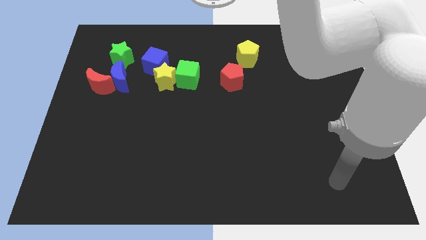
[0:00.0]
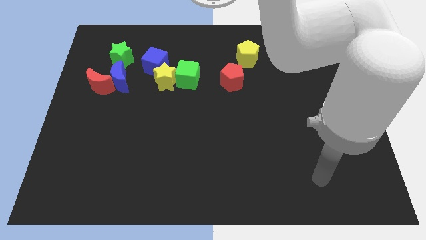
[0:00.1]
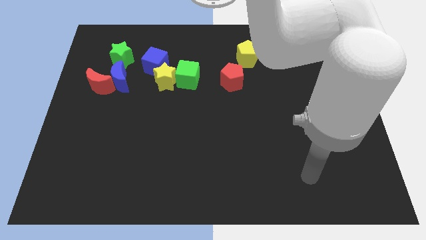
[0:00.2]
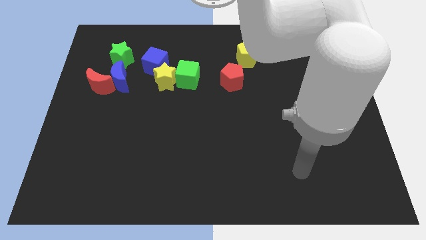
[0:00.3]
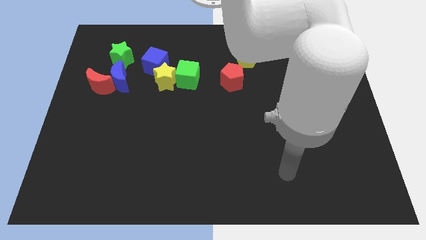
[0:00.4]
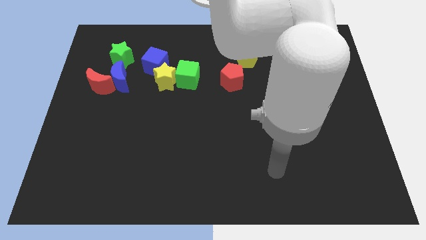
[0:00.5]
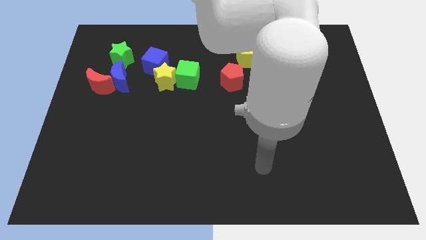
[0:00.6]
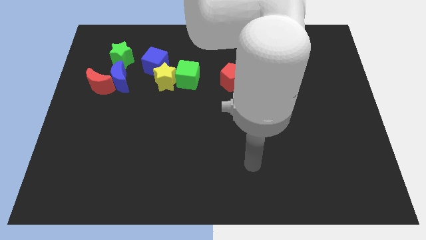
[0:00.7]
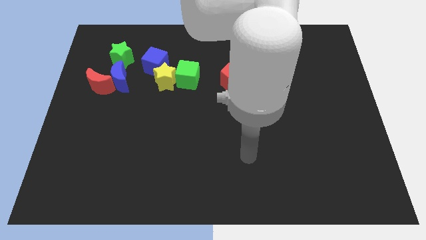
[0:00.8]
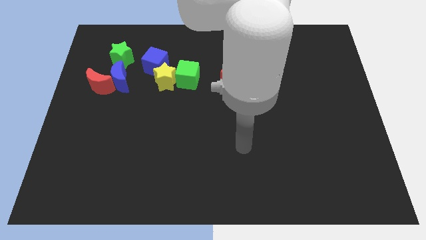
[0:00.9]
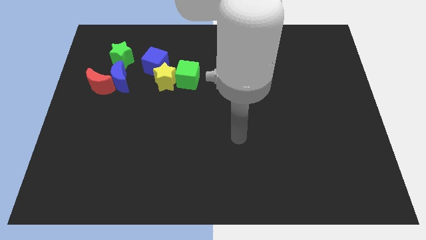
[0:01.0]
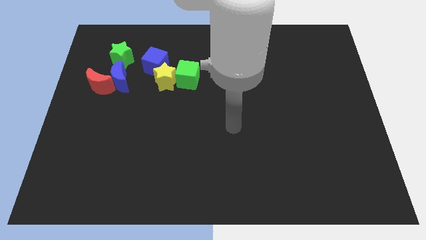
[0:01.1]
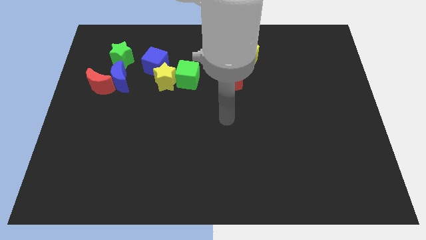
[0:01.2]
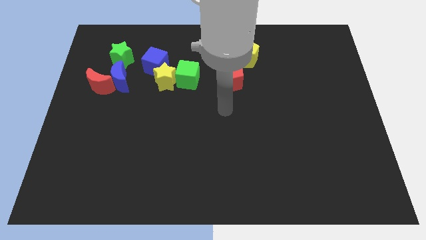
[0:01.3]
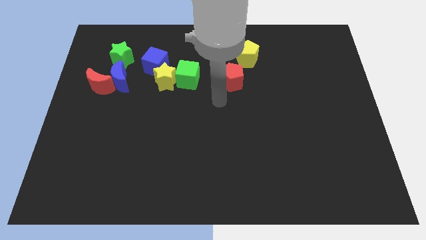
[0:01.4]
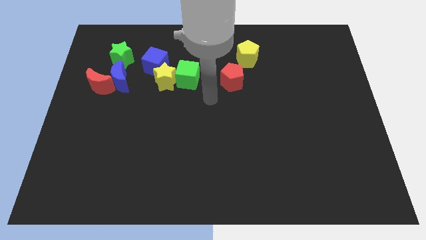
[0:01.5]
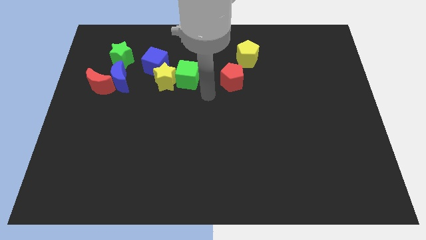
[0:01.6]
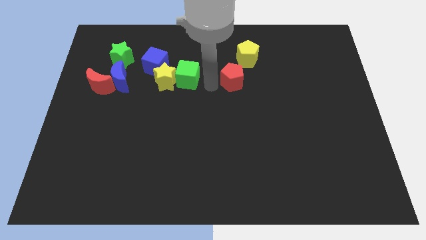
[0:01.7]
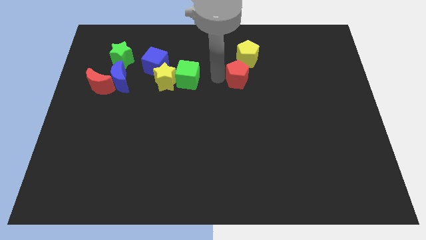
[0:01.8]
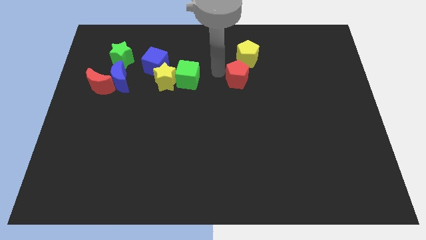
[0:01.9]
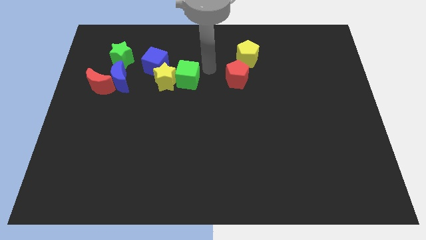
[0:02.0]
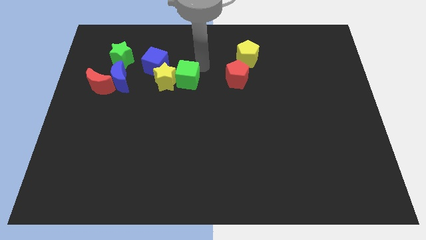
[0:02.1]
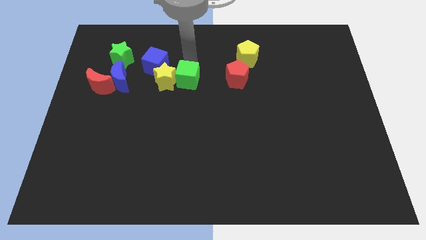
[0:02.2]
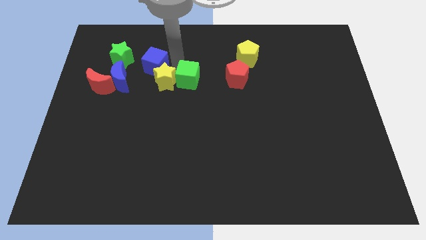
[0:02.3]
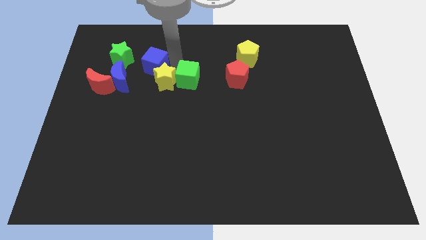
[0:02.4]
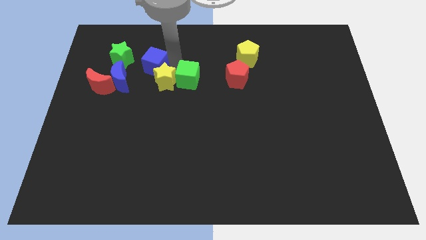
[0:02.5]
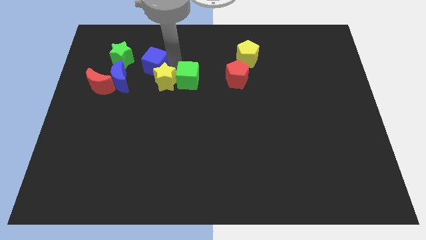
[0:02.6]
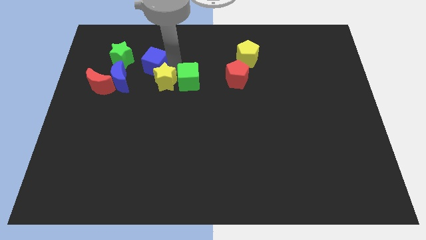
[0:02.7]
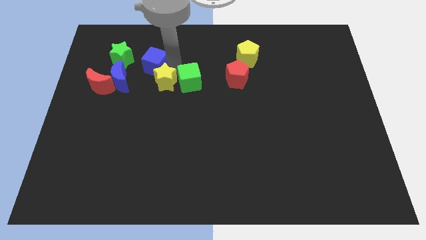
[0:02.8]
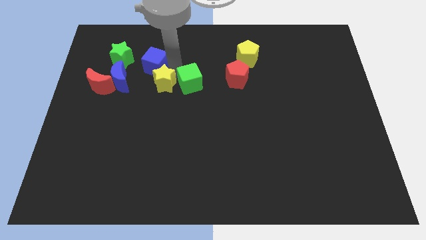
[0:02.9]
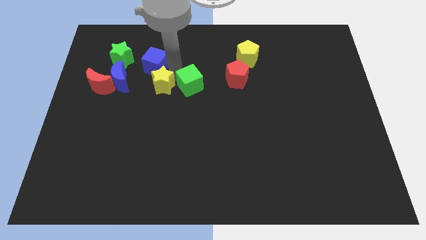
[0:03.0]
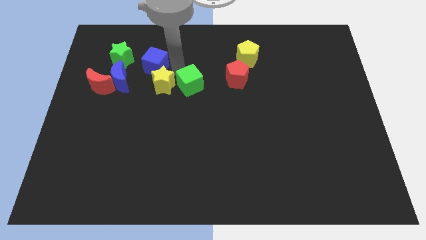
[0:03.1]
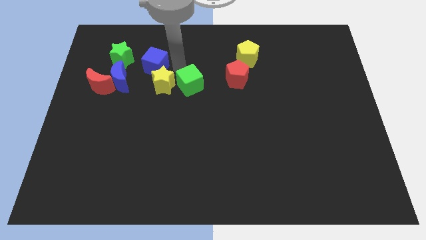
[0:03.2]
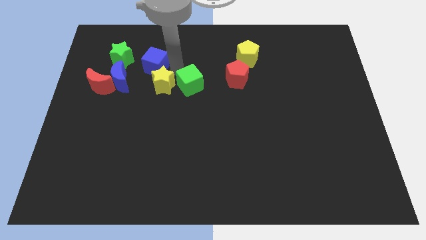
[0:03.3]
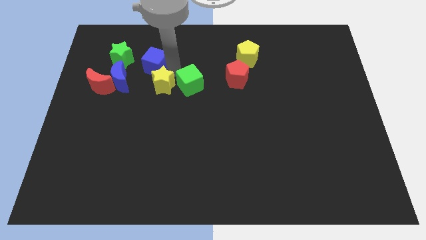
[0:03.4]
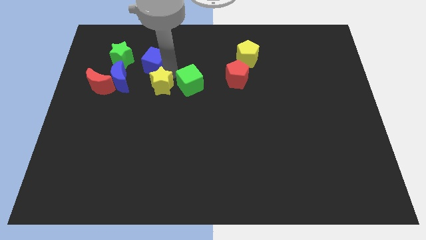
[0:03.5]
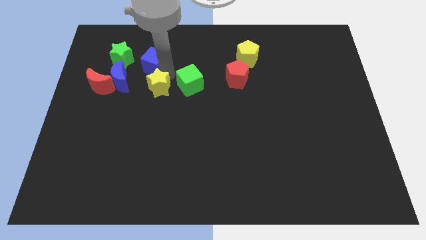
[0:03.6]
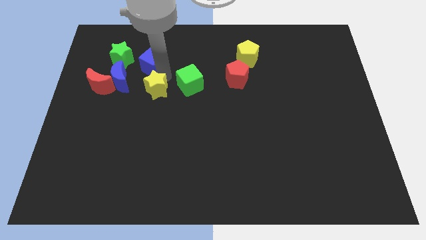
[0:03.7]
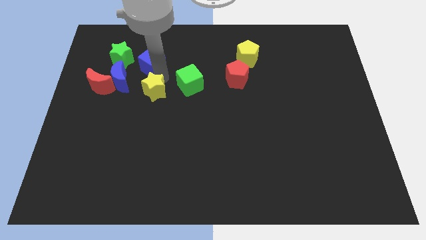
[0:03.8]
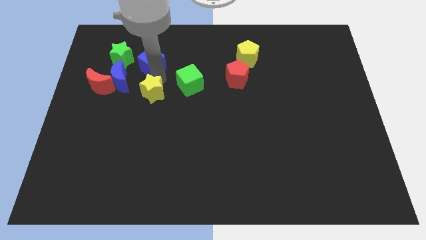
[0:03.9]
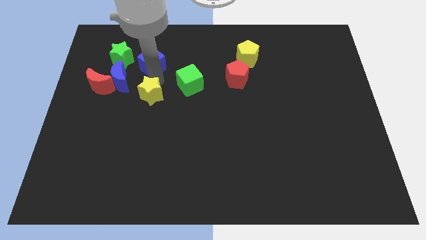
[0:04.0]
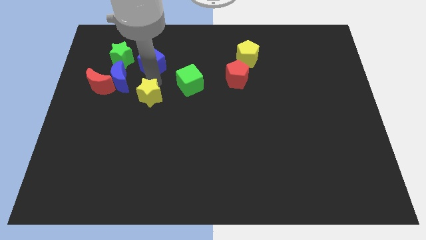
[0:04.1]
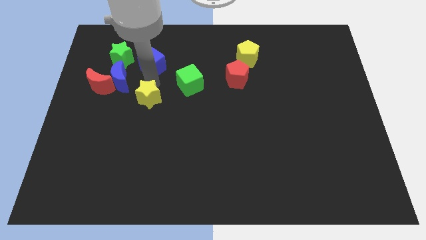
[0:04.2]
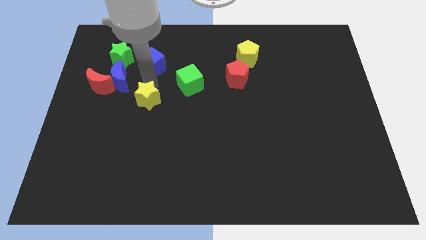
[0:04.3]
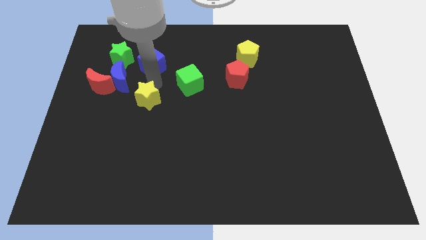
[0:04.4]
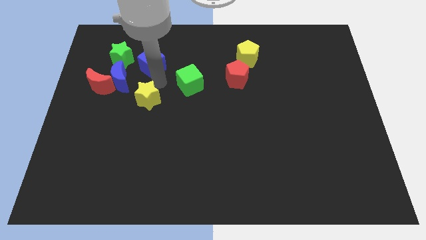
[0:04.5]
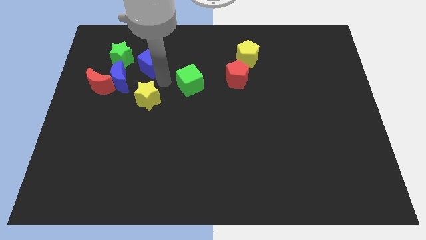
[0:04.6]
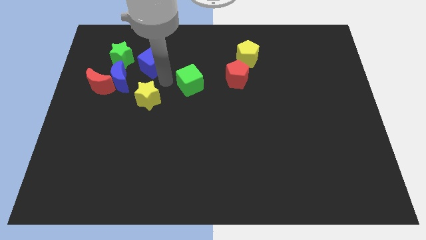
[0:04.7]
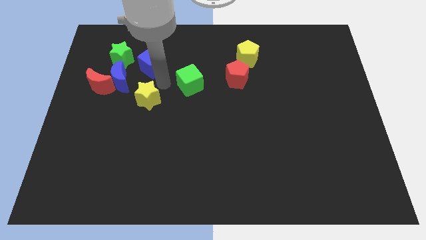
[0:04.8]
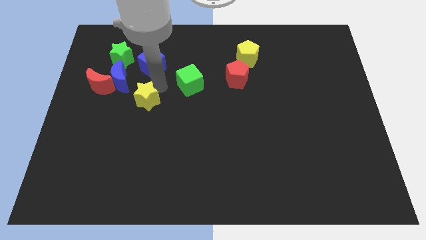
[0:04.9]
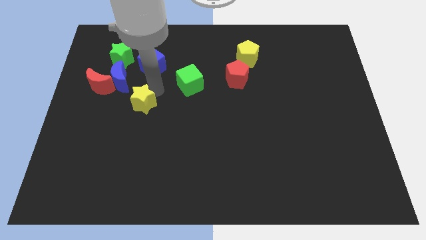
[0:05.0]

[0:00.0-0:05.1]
separate the yellow star from the green cube and blue cube

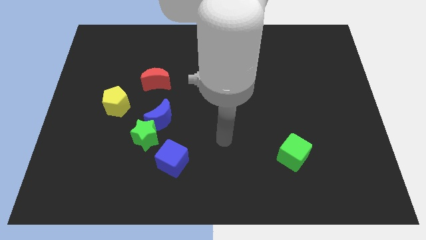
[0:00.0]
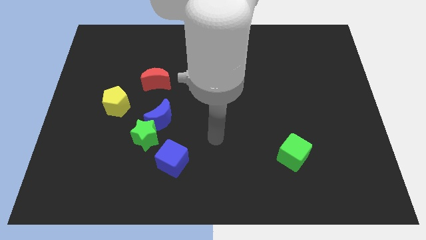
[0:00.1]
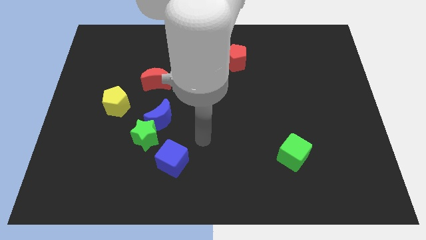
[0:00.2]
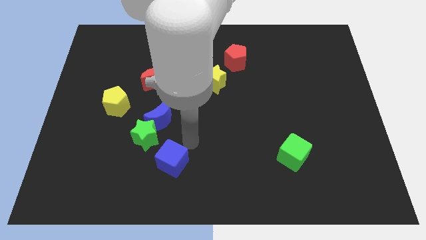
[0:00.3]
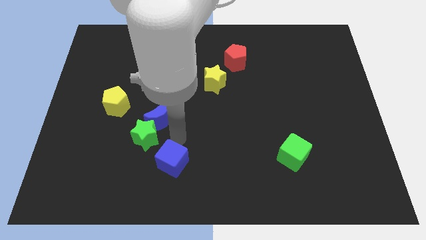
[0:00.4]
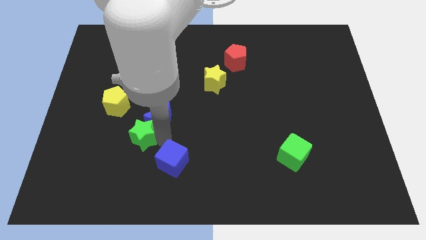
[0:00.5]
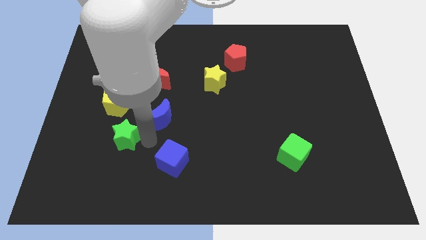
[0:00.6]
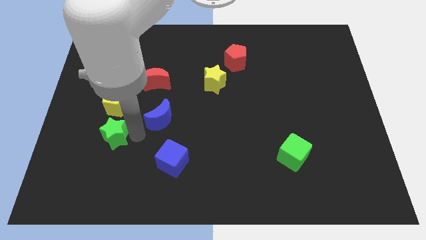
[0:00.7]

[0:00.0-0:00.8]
separate the blue moon from the green star

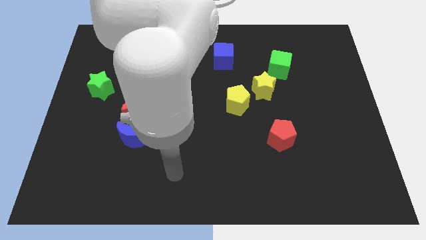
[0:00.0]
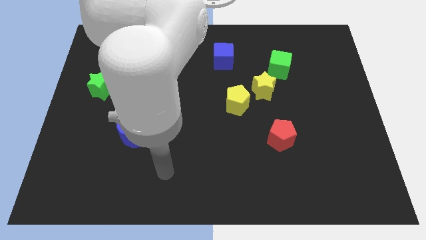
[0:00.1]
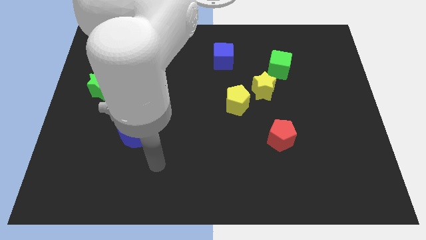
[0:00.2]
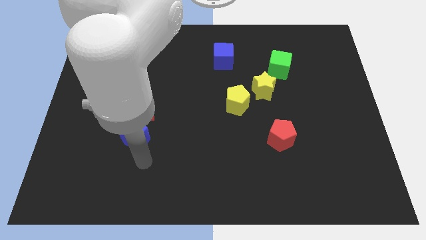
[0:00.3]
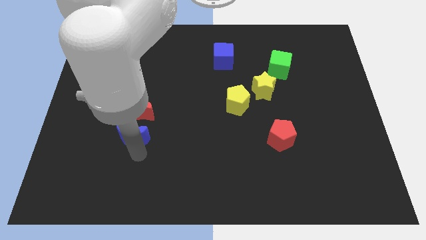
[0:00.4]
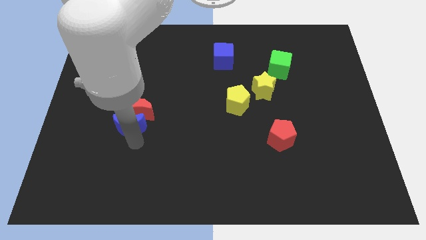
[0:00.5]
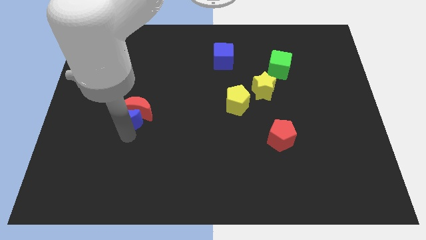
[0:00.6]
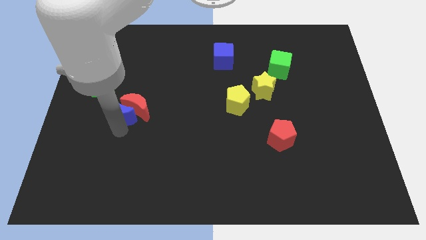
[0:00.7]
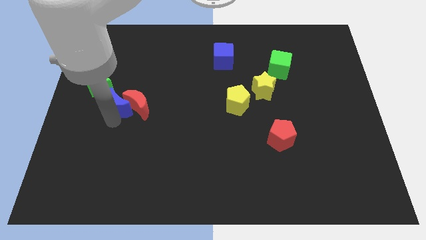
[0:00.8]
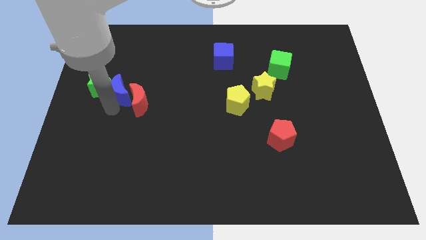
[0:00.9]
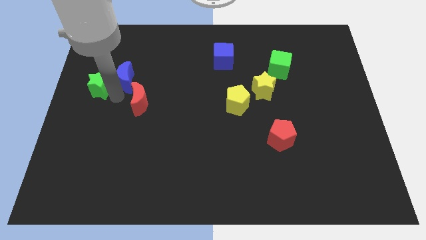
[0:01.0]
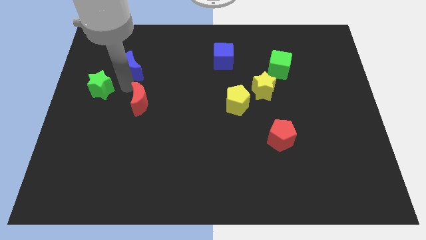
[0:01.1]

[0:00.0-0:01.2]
pull the red moon apart from the blue moon

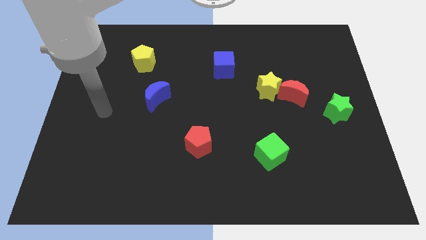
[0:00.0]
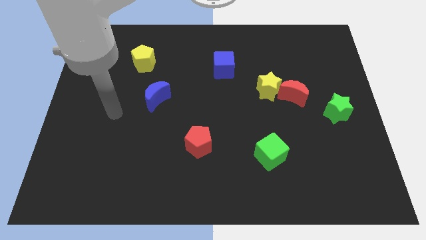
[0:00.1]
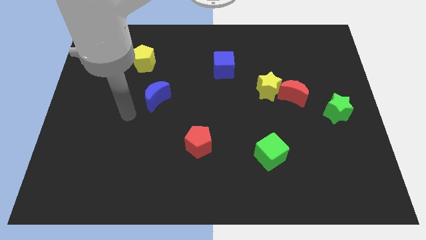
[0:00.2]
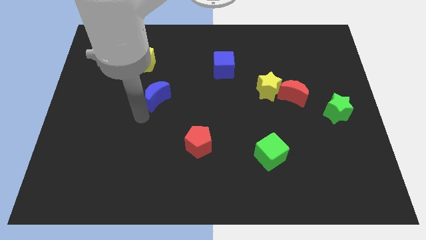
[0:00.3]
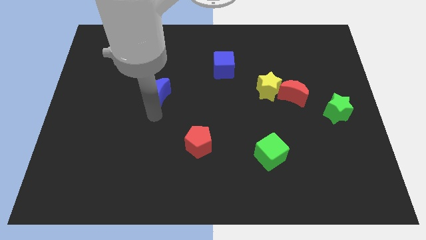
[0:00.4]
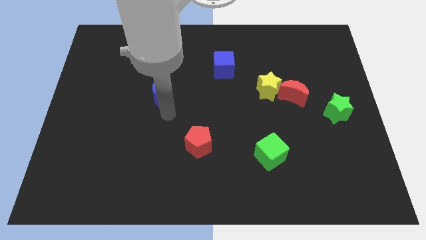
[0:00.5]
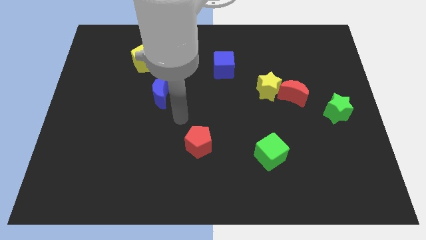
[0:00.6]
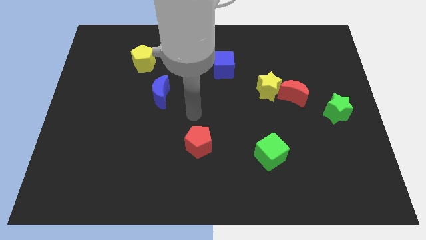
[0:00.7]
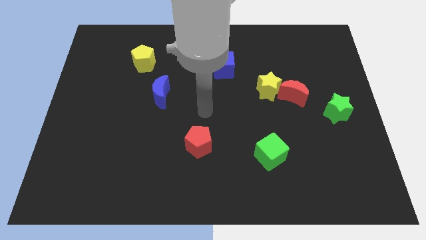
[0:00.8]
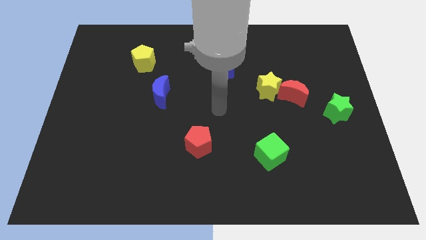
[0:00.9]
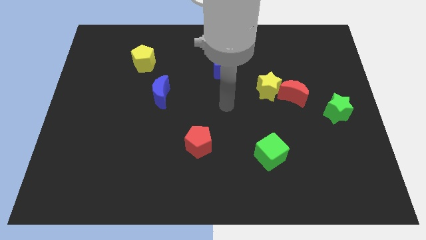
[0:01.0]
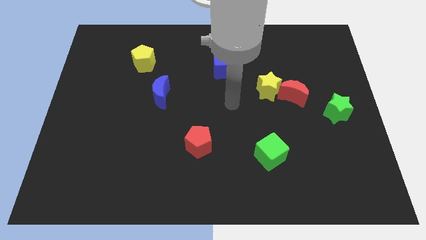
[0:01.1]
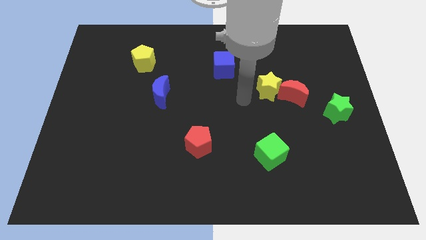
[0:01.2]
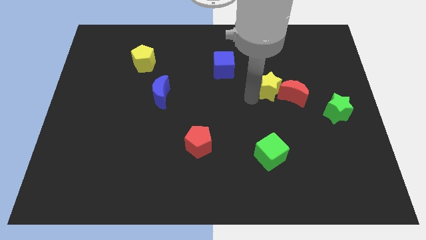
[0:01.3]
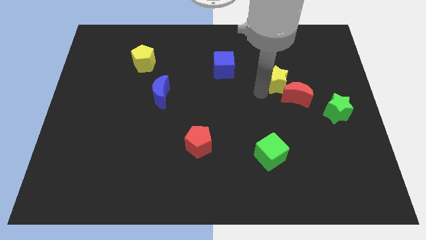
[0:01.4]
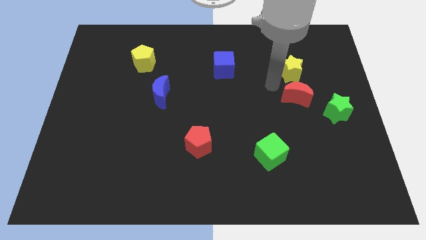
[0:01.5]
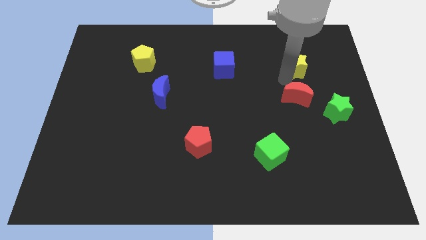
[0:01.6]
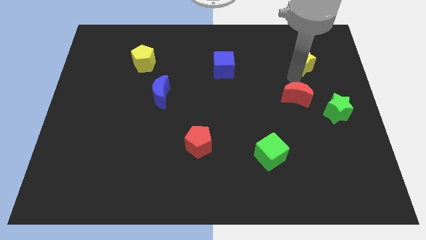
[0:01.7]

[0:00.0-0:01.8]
separate the red moon from the yellow star

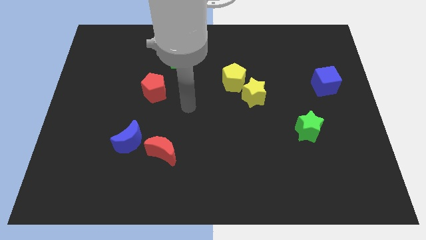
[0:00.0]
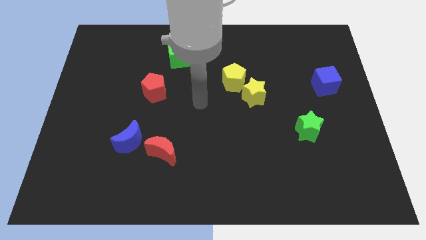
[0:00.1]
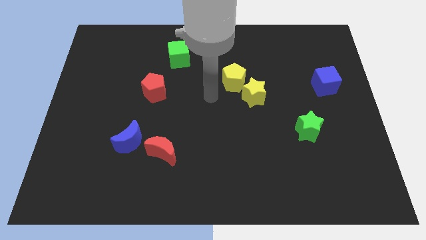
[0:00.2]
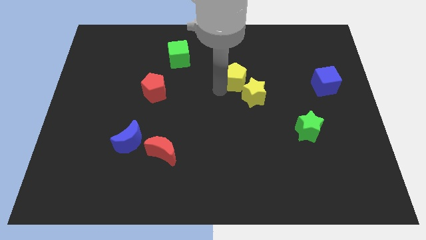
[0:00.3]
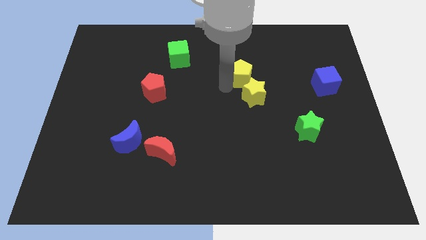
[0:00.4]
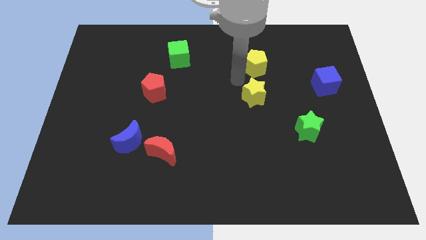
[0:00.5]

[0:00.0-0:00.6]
separate the yellow star from the yellow pentagon
